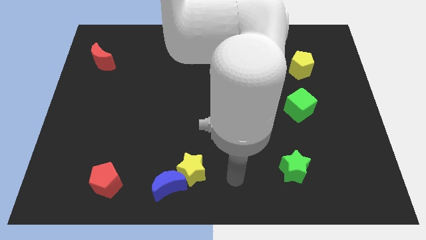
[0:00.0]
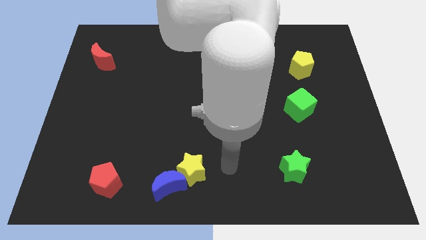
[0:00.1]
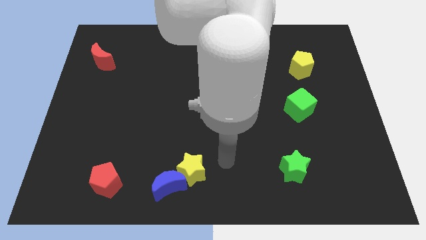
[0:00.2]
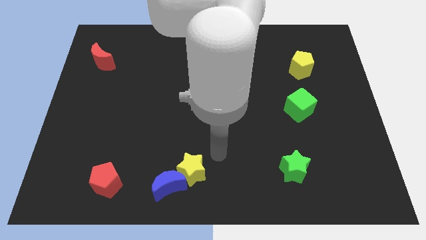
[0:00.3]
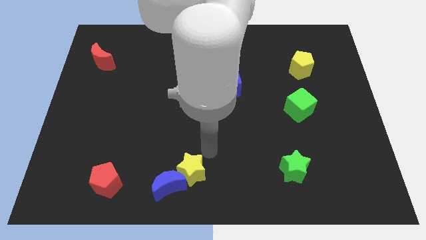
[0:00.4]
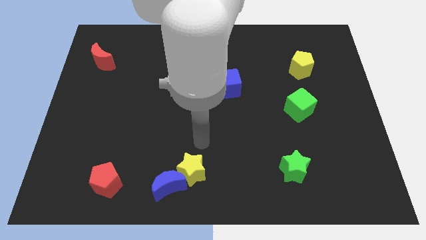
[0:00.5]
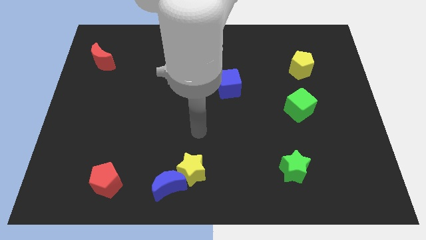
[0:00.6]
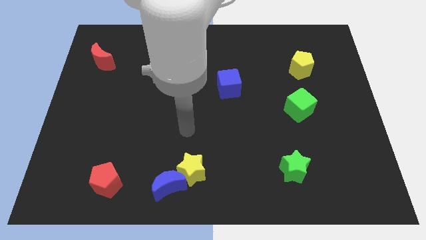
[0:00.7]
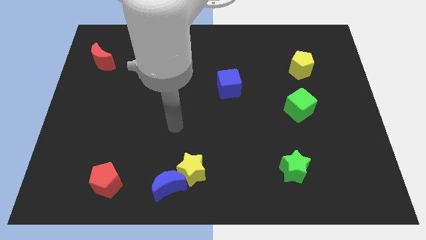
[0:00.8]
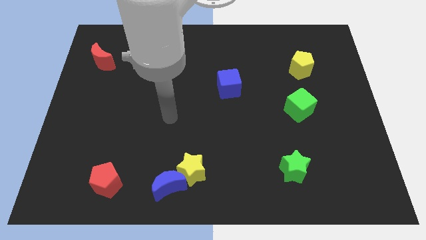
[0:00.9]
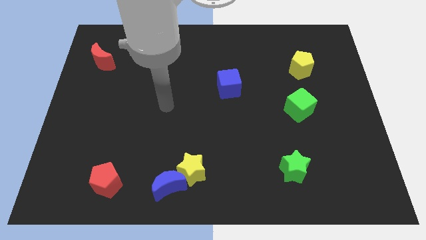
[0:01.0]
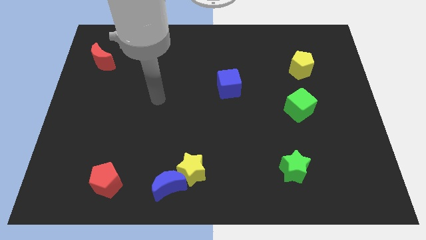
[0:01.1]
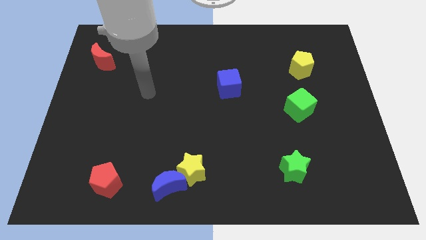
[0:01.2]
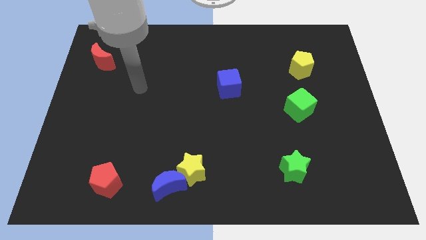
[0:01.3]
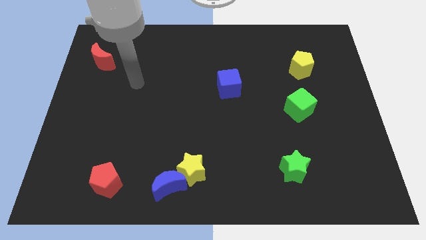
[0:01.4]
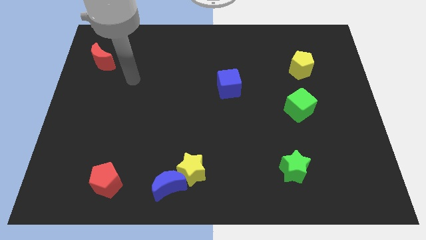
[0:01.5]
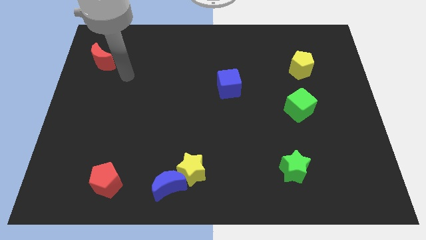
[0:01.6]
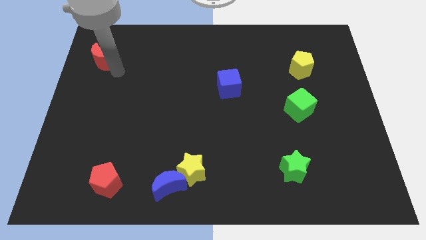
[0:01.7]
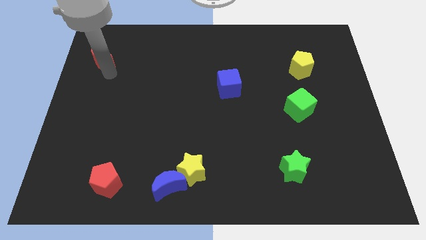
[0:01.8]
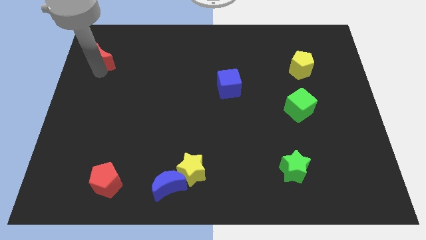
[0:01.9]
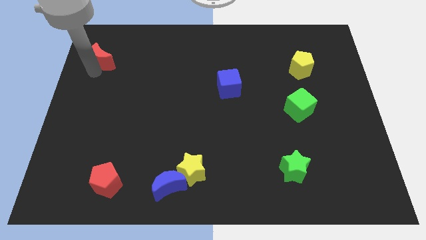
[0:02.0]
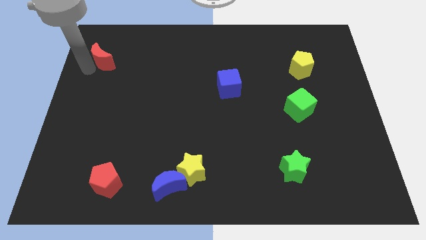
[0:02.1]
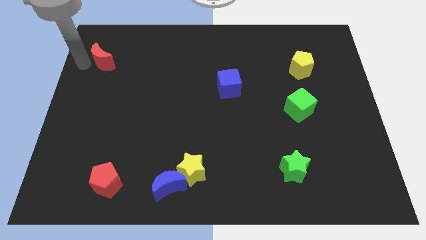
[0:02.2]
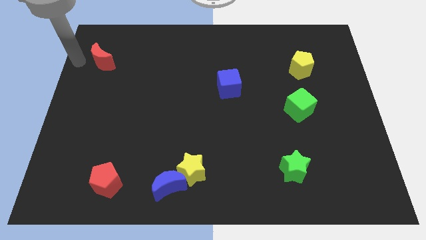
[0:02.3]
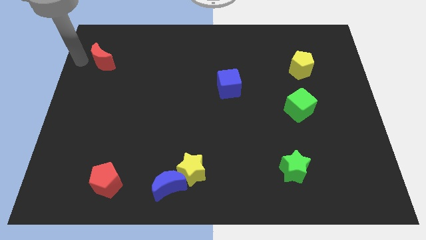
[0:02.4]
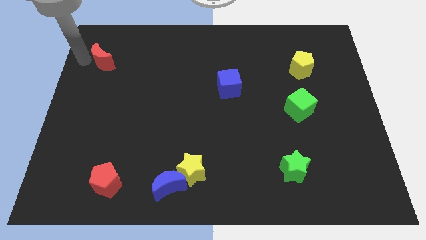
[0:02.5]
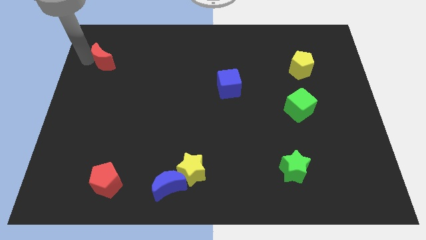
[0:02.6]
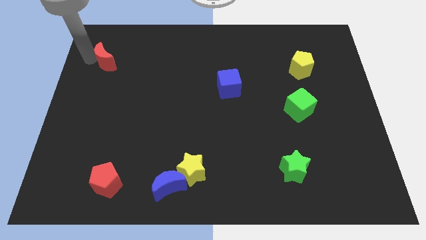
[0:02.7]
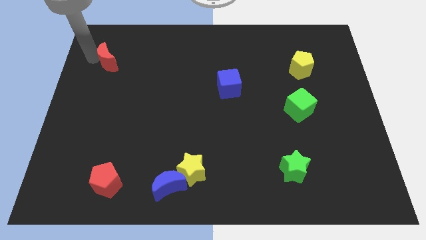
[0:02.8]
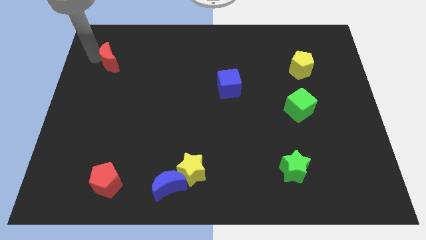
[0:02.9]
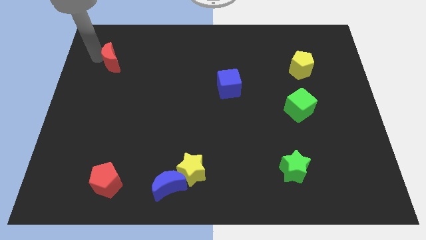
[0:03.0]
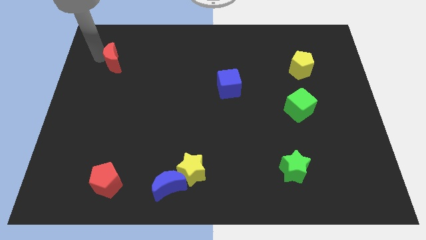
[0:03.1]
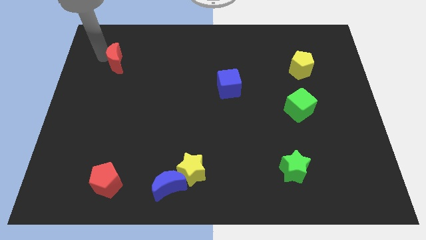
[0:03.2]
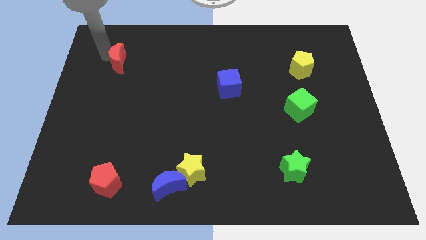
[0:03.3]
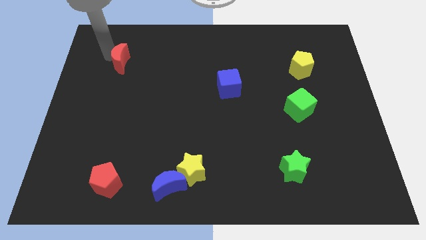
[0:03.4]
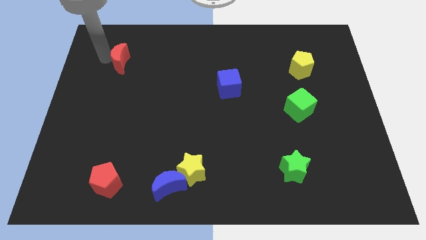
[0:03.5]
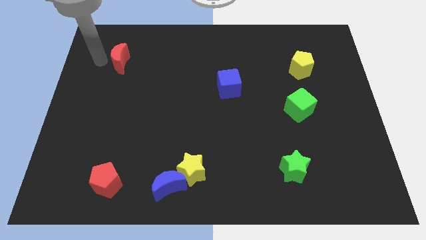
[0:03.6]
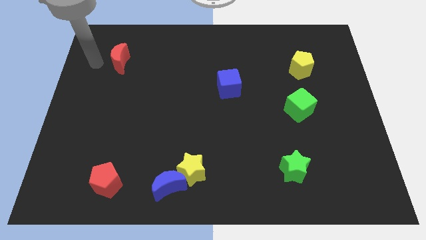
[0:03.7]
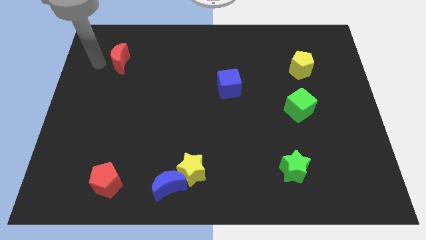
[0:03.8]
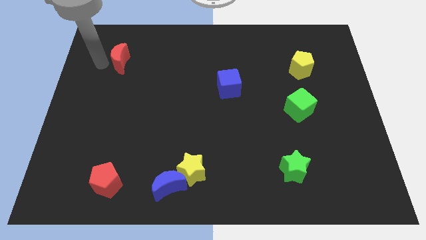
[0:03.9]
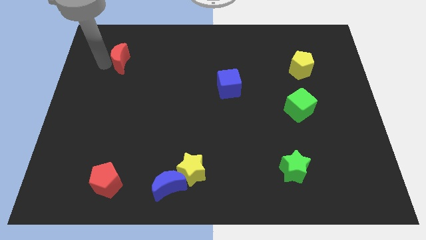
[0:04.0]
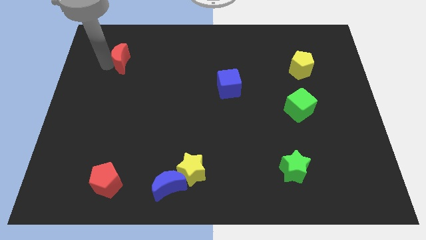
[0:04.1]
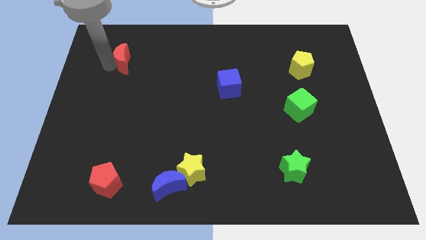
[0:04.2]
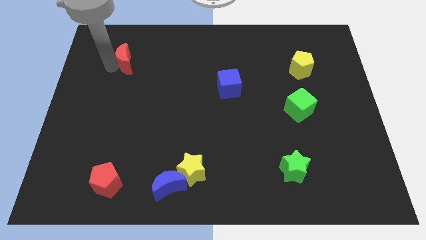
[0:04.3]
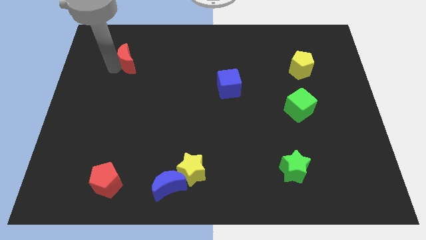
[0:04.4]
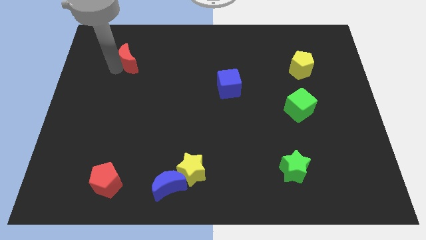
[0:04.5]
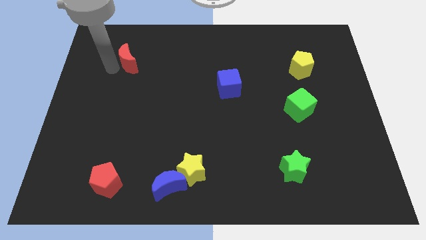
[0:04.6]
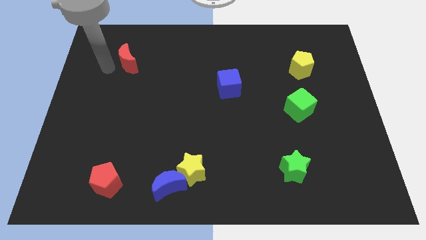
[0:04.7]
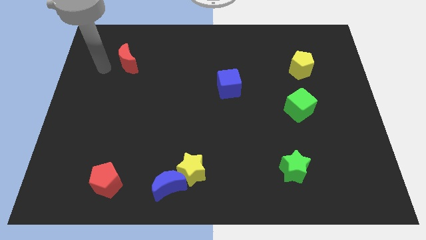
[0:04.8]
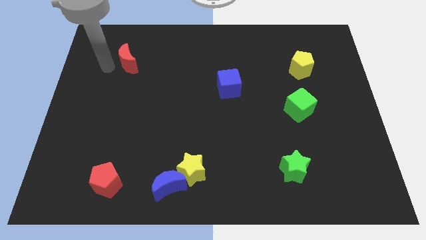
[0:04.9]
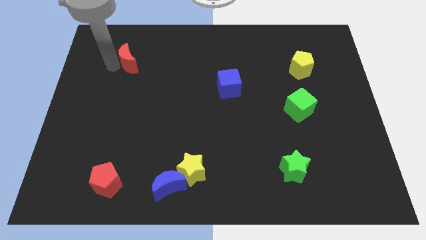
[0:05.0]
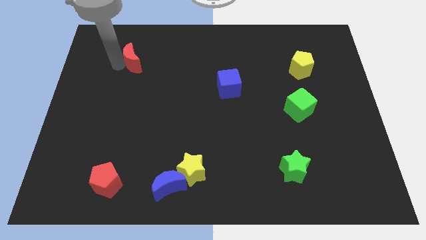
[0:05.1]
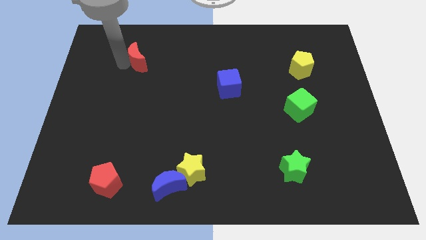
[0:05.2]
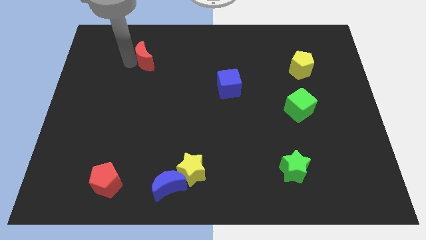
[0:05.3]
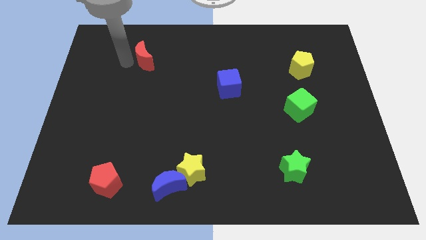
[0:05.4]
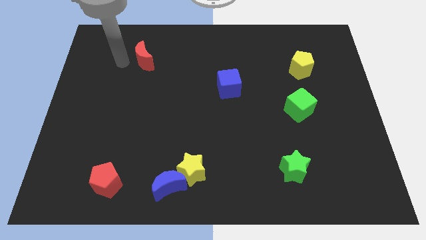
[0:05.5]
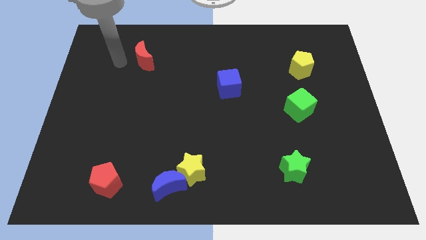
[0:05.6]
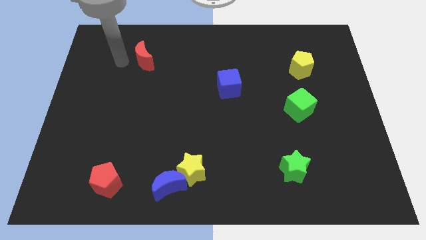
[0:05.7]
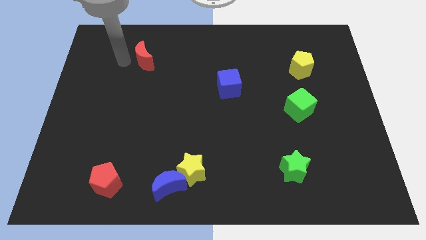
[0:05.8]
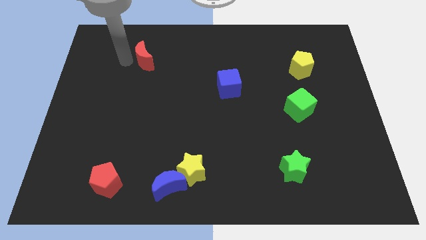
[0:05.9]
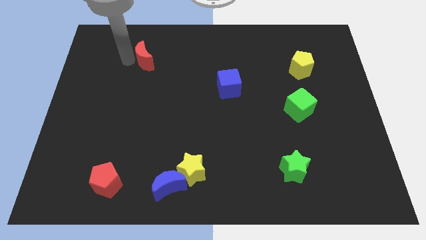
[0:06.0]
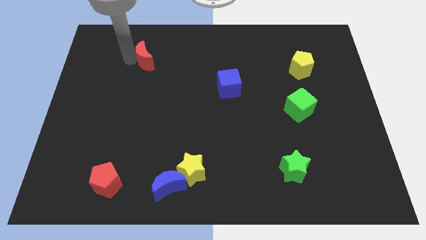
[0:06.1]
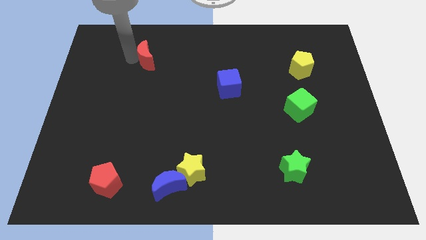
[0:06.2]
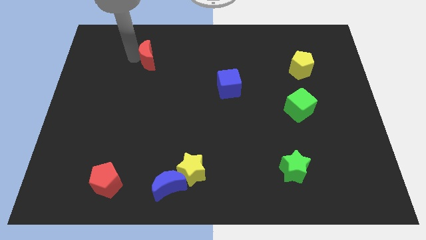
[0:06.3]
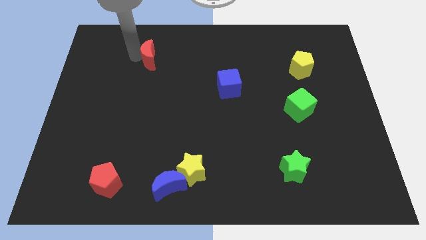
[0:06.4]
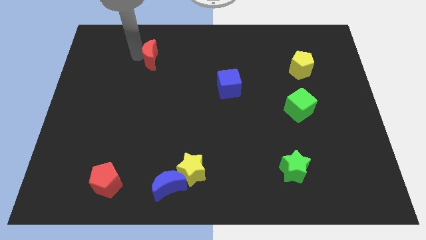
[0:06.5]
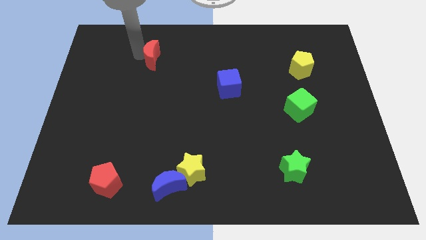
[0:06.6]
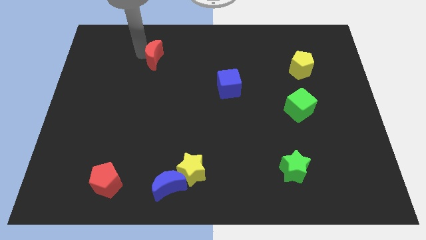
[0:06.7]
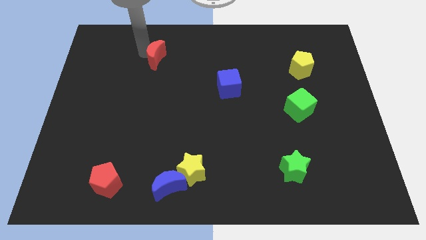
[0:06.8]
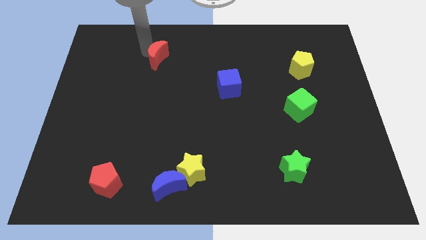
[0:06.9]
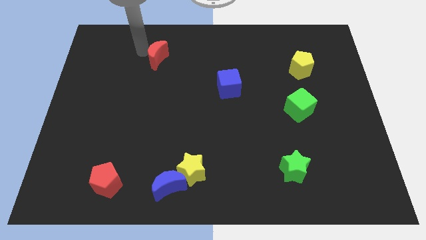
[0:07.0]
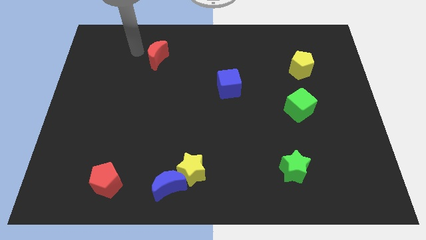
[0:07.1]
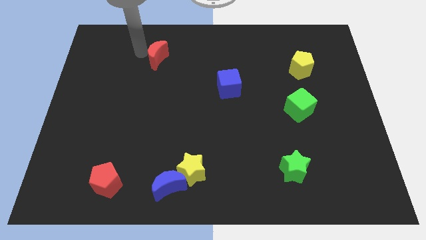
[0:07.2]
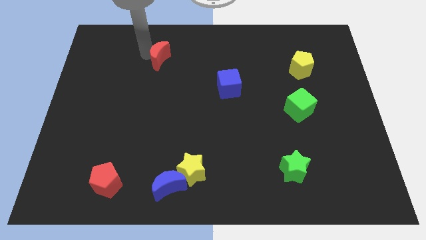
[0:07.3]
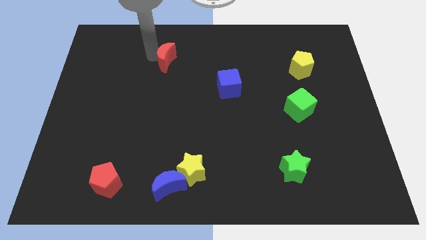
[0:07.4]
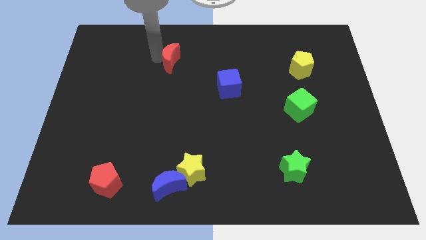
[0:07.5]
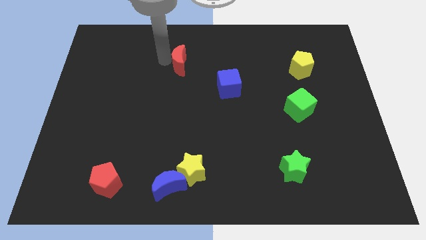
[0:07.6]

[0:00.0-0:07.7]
push the red moon to the right

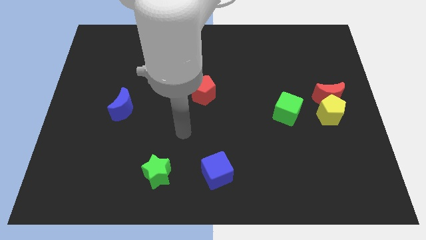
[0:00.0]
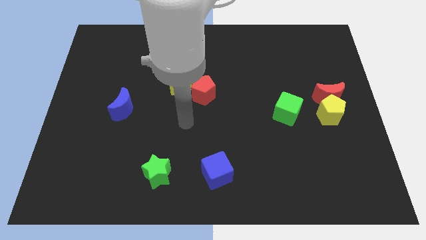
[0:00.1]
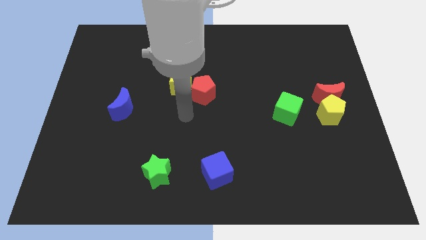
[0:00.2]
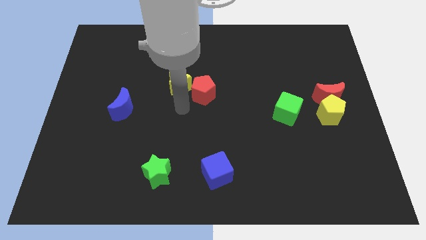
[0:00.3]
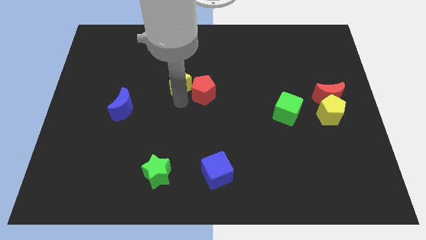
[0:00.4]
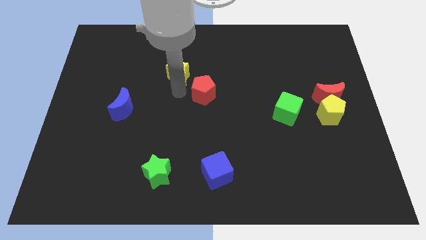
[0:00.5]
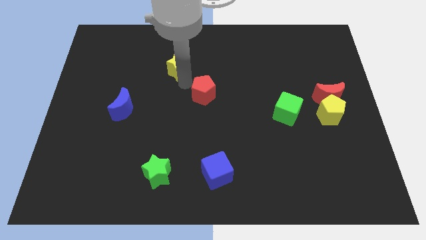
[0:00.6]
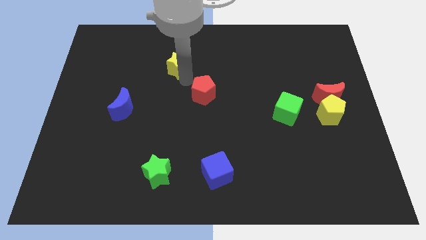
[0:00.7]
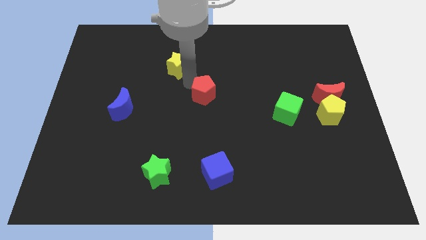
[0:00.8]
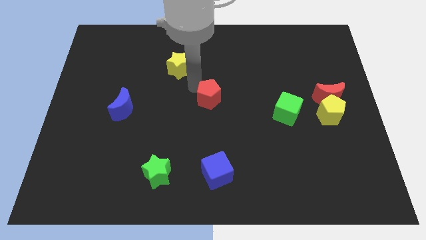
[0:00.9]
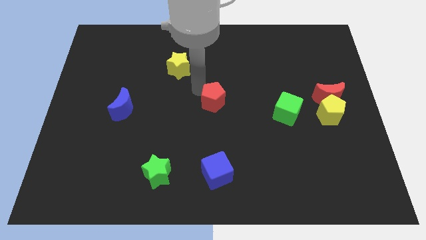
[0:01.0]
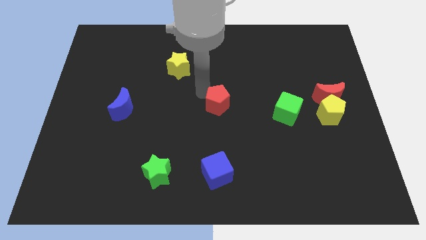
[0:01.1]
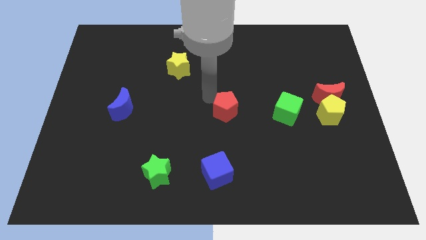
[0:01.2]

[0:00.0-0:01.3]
move the red pentagon slightly downwards and to the right diagonally
